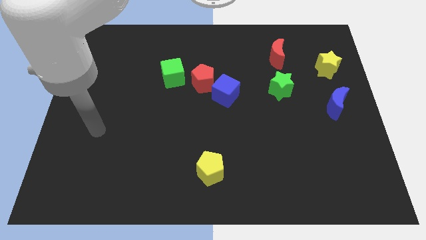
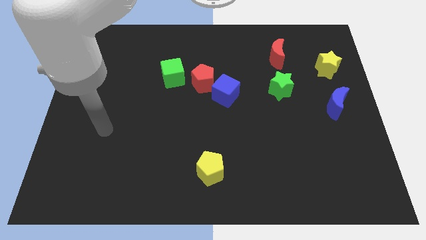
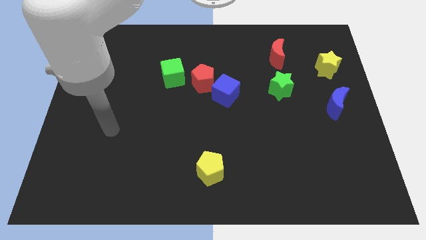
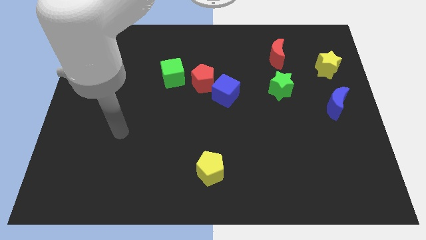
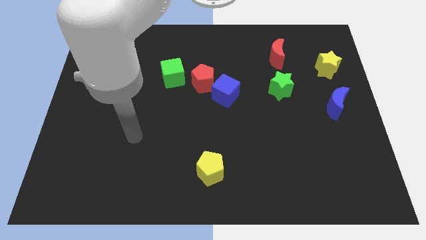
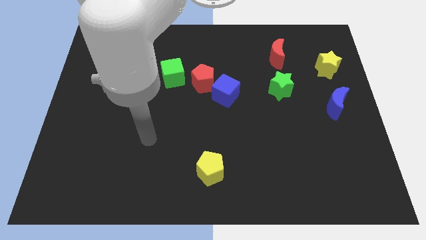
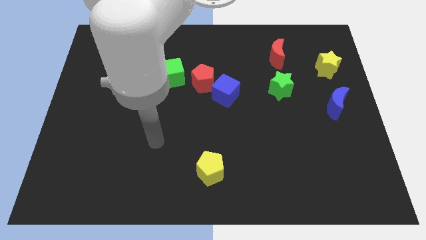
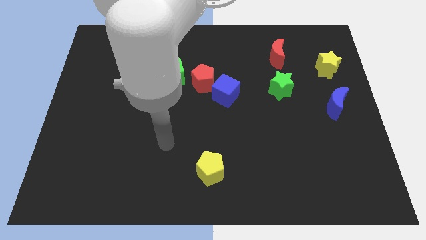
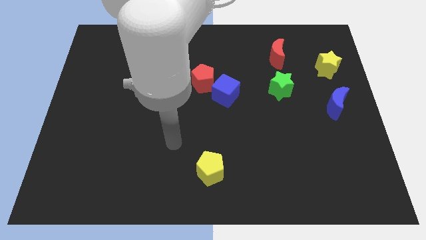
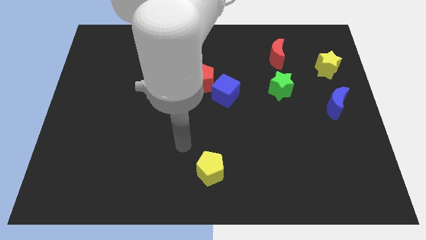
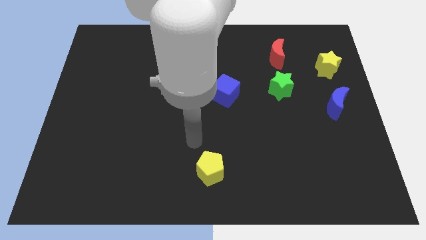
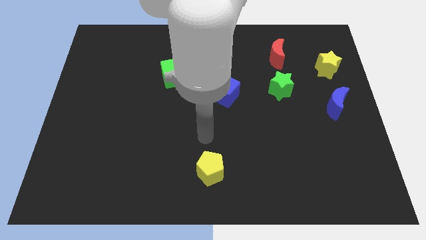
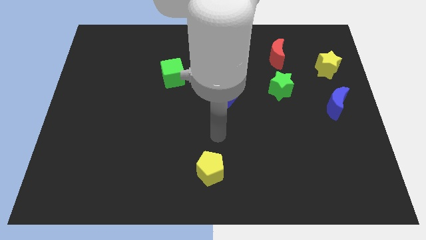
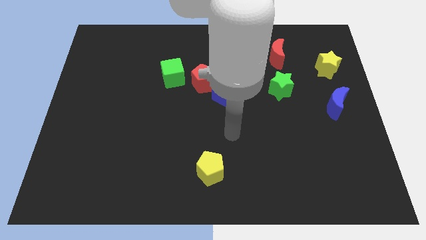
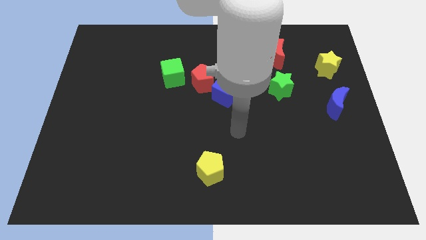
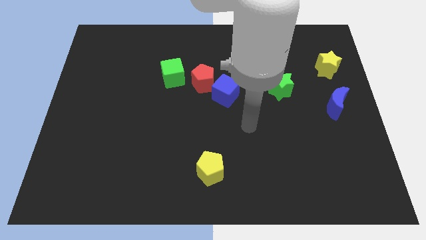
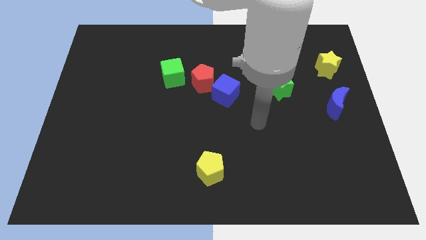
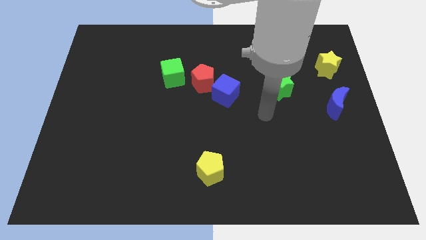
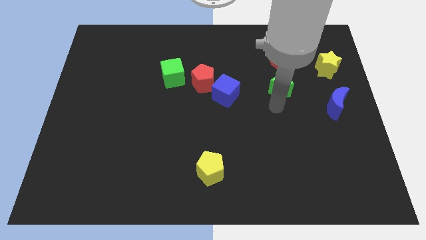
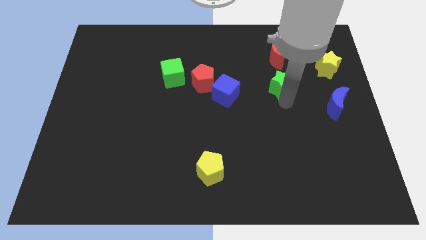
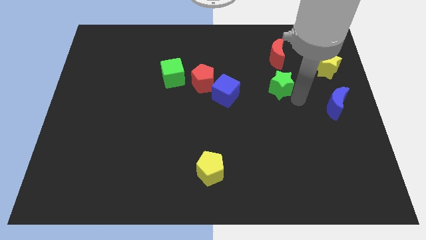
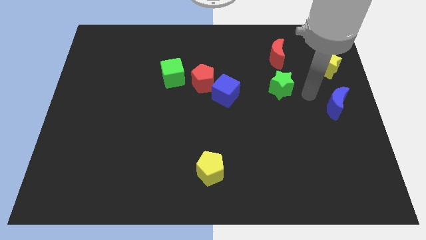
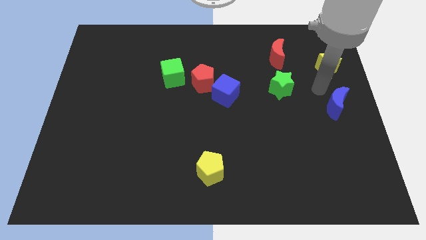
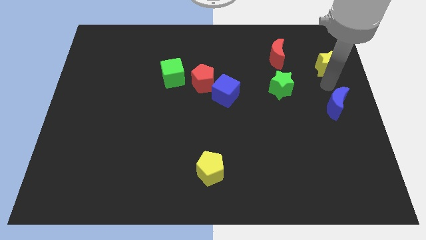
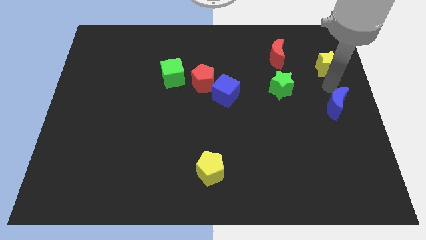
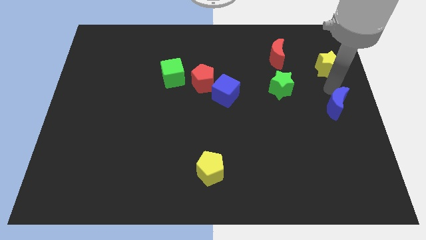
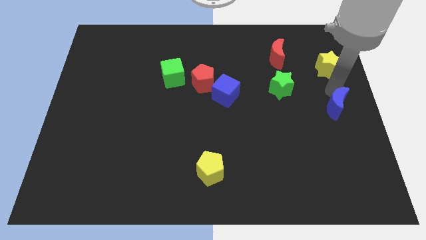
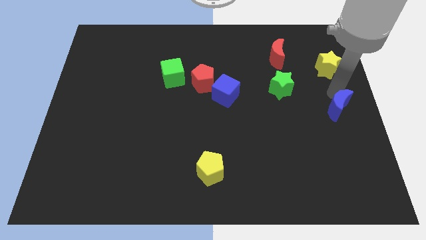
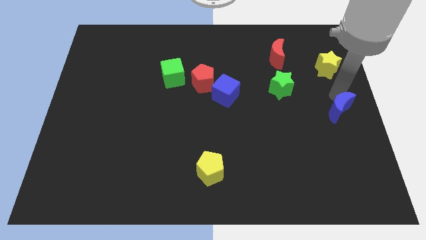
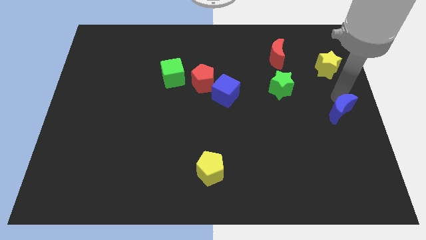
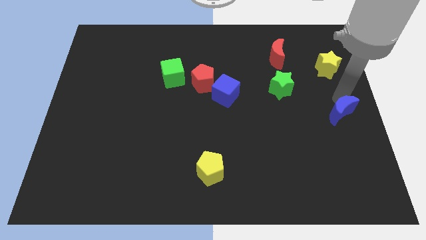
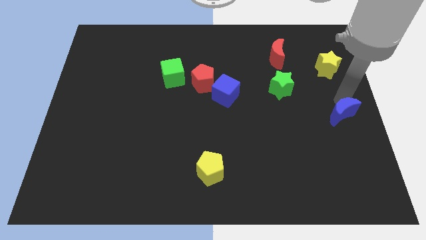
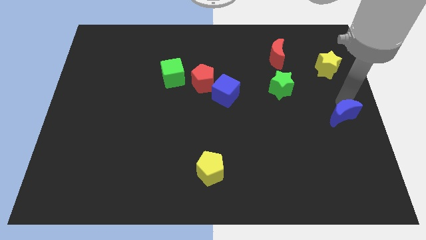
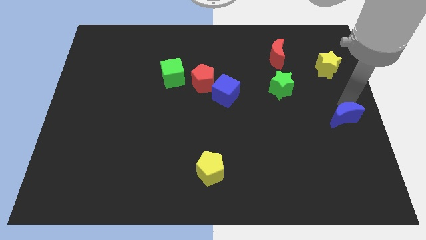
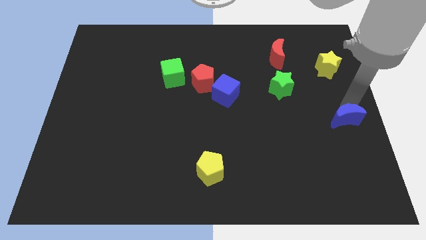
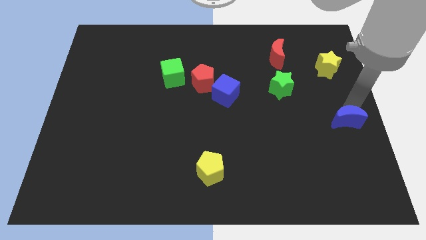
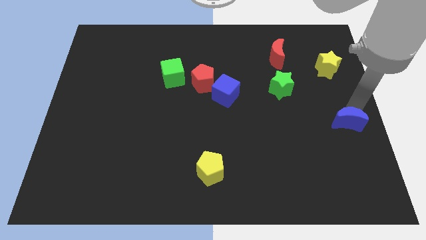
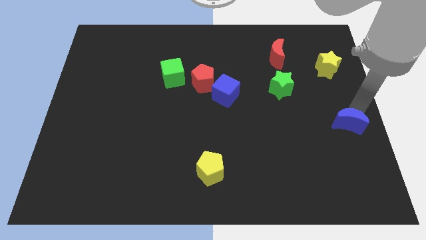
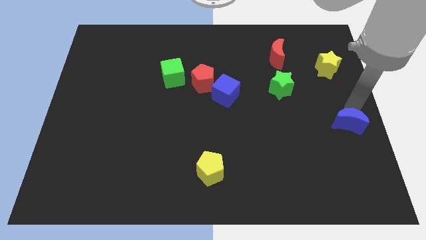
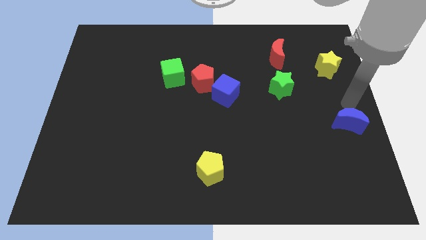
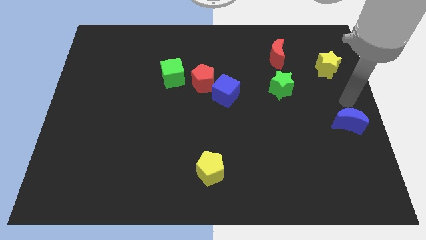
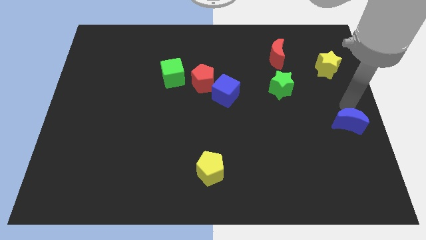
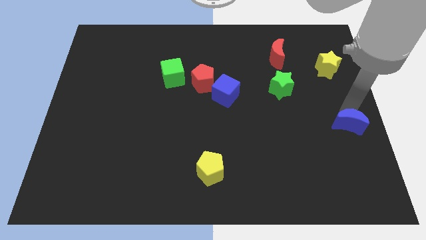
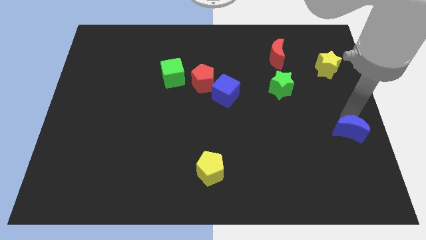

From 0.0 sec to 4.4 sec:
push the blue moon down somewhat

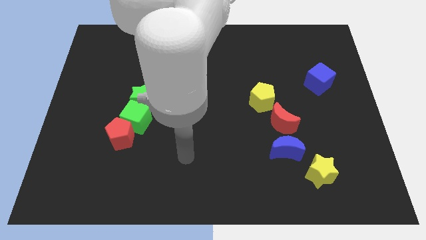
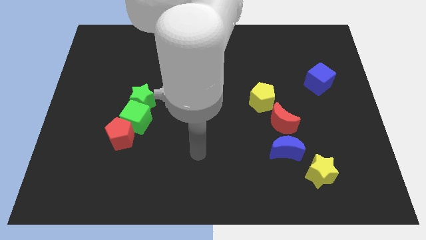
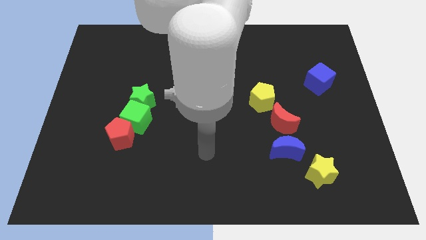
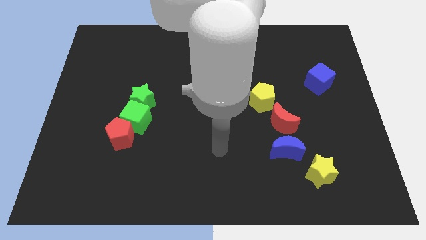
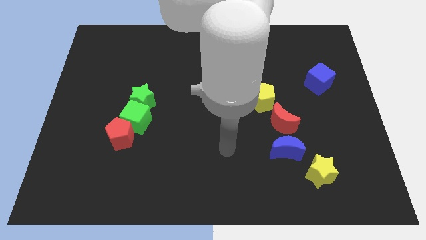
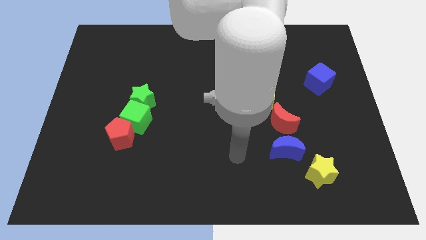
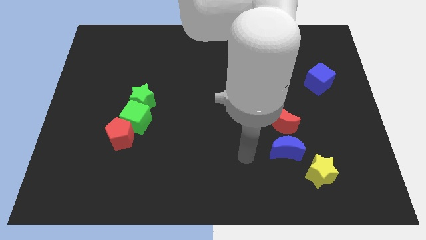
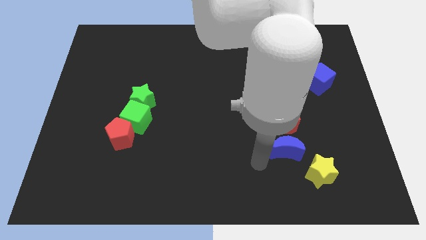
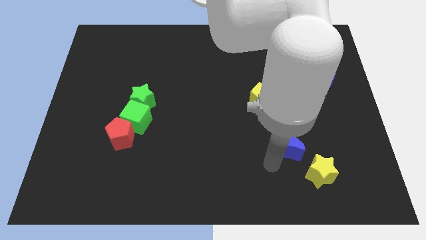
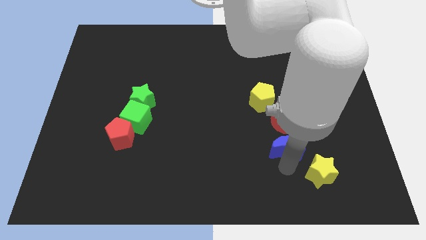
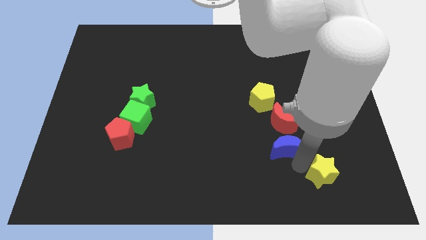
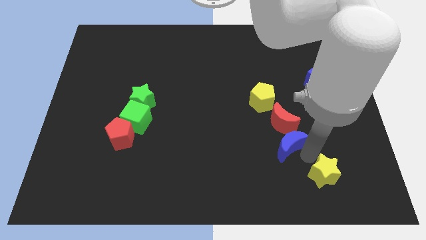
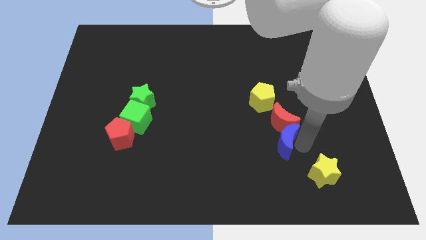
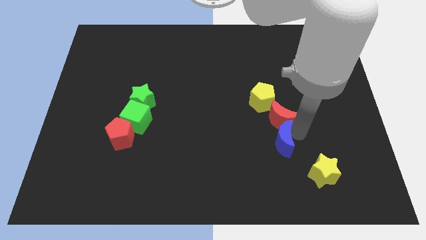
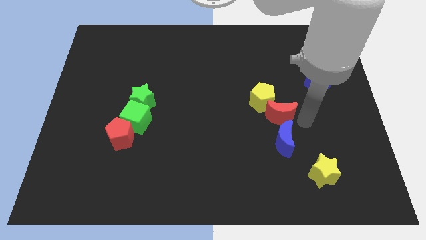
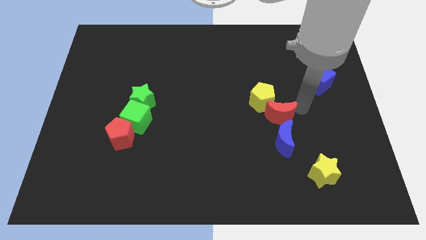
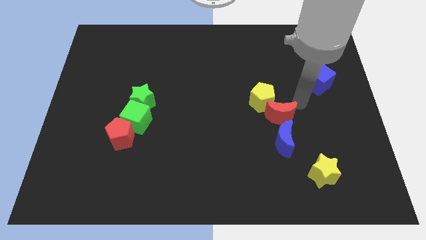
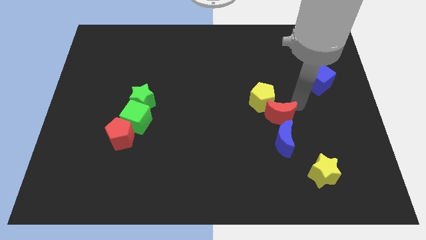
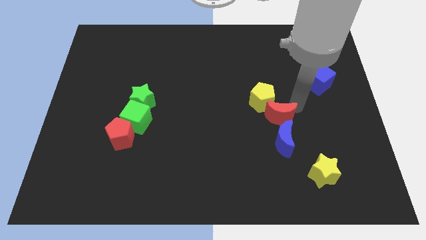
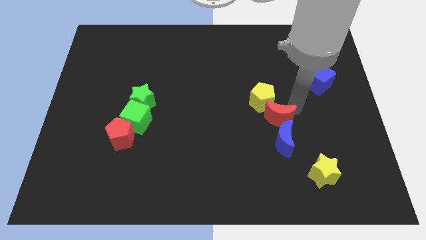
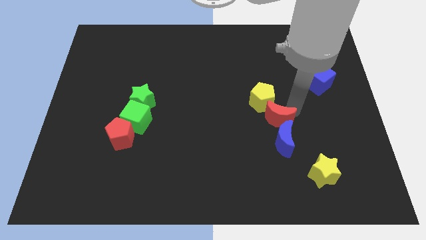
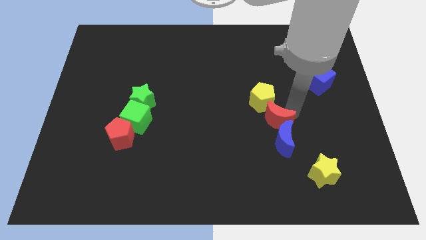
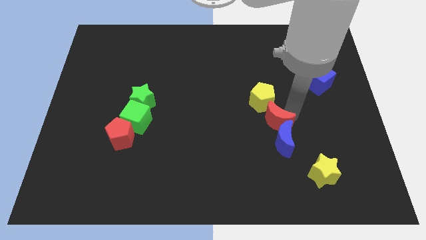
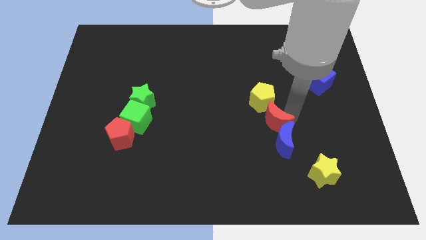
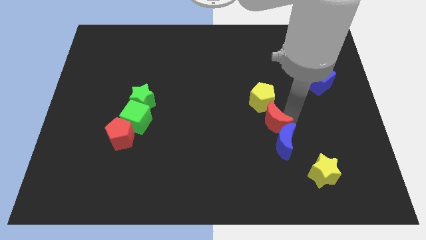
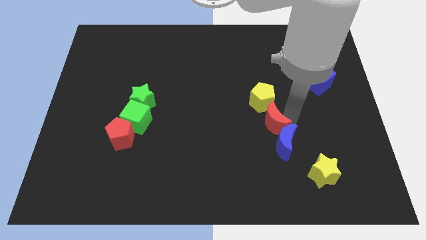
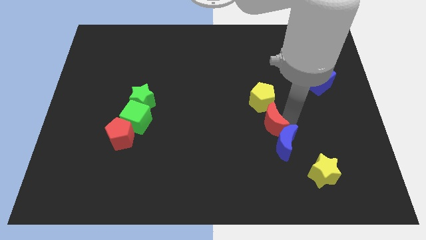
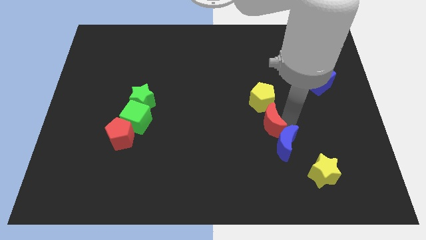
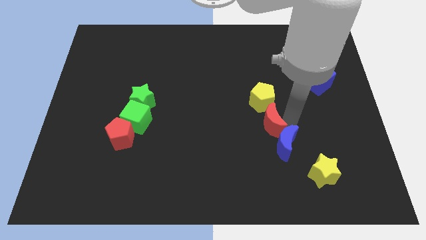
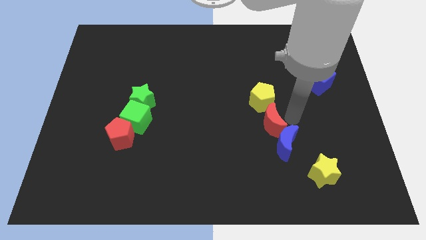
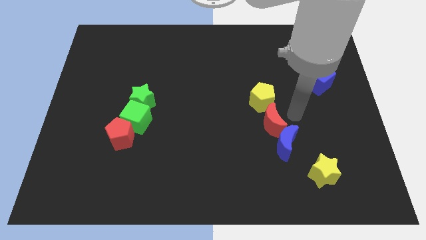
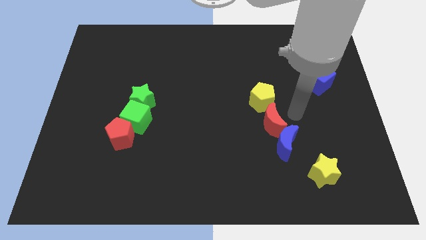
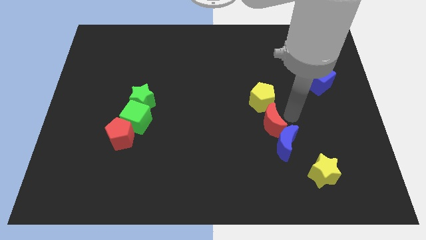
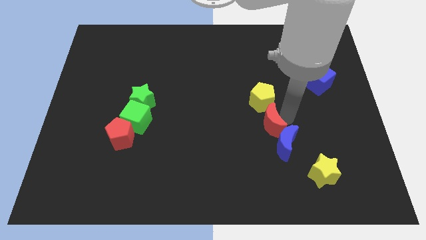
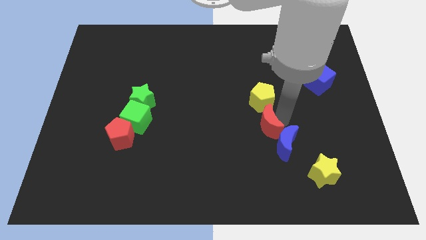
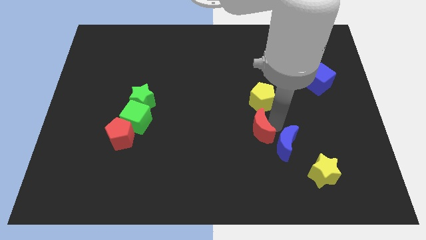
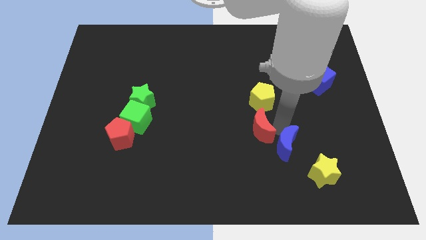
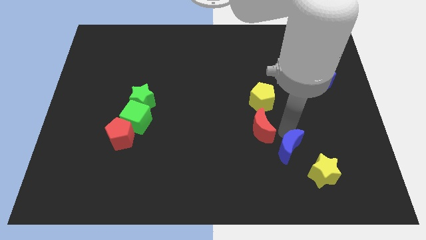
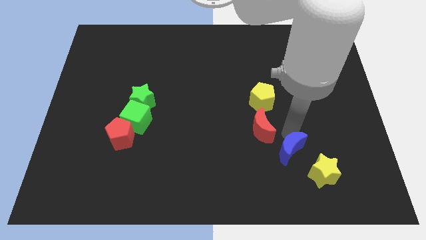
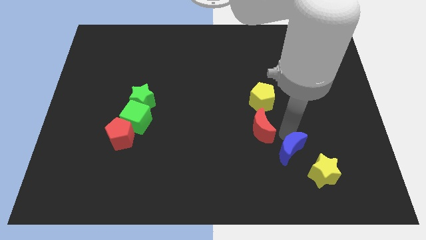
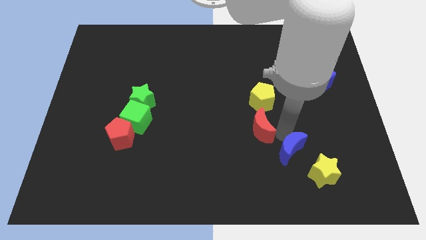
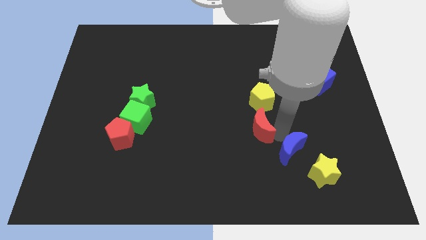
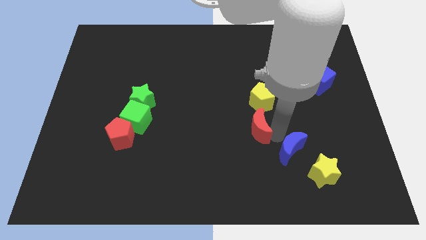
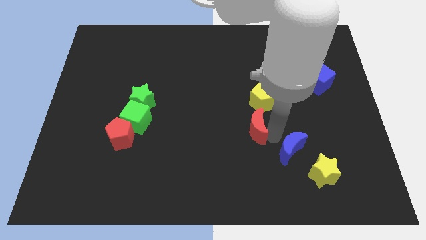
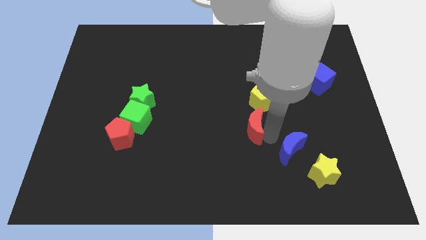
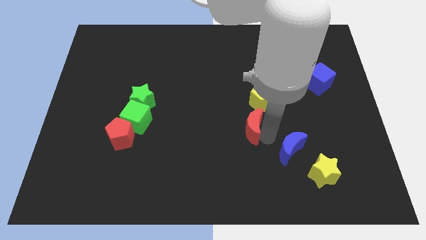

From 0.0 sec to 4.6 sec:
slightly slide the red moon to the left
